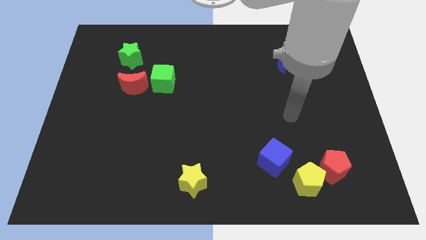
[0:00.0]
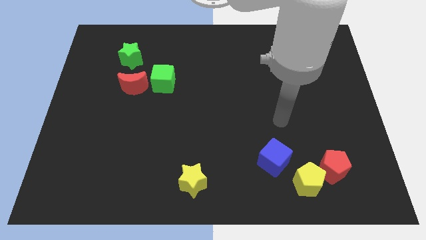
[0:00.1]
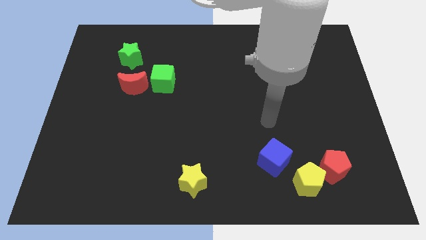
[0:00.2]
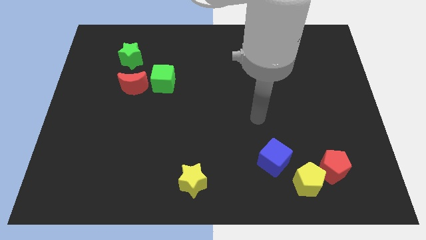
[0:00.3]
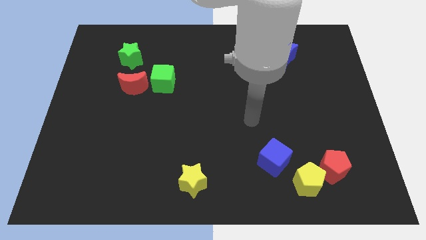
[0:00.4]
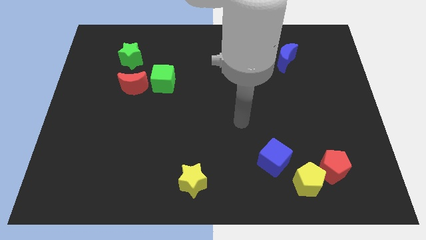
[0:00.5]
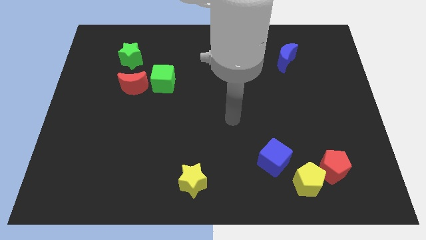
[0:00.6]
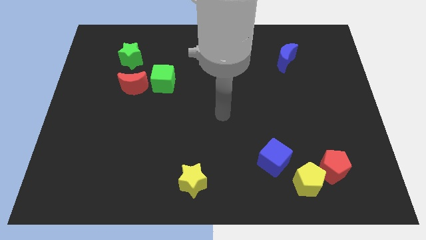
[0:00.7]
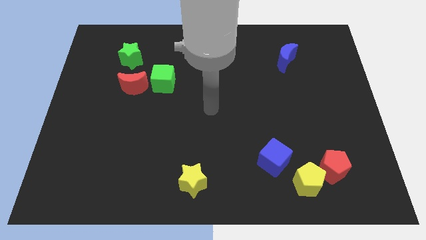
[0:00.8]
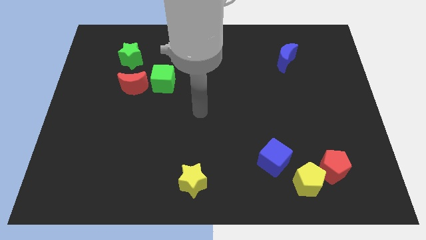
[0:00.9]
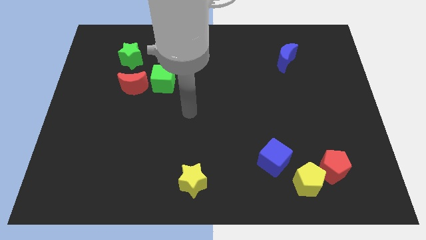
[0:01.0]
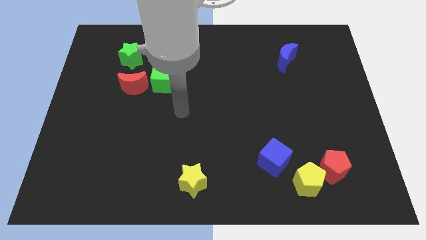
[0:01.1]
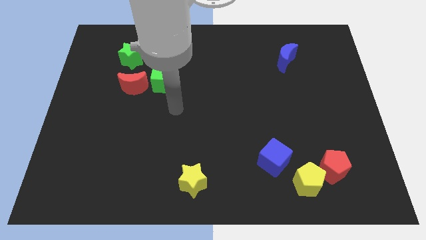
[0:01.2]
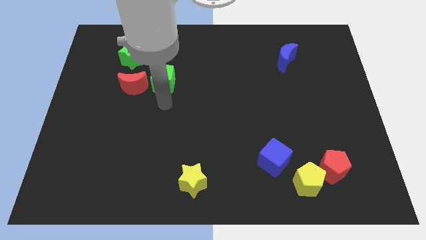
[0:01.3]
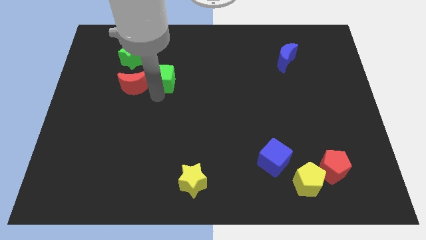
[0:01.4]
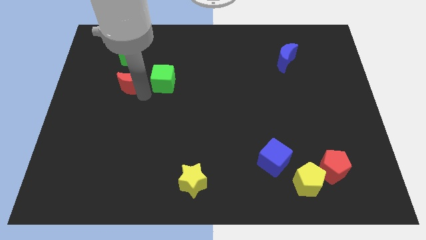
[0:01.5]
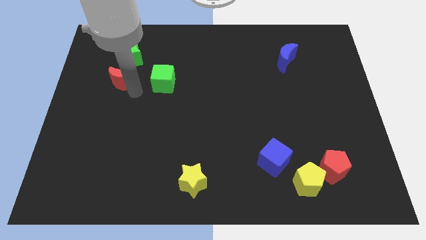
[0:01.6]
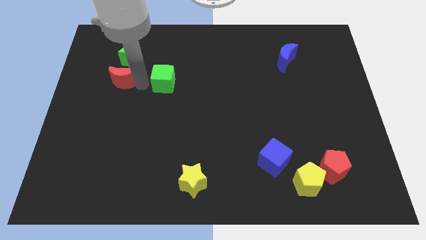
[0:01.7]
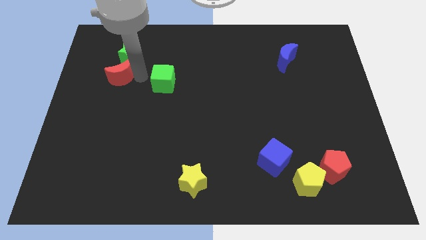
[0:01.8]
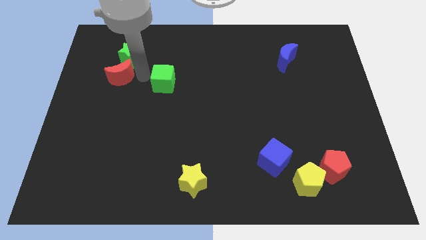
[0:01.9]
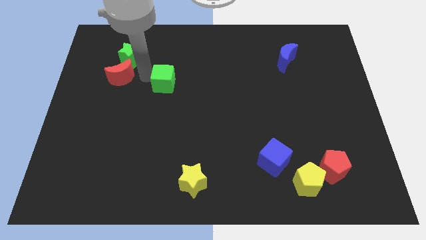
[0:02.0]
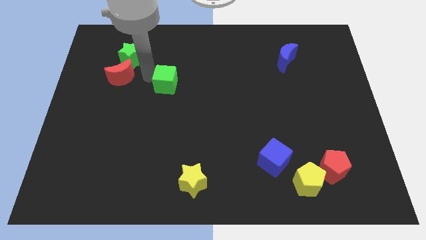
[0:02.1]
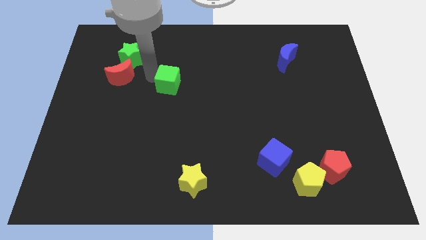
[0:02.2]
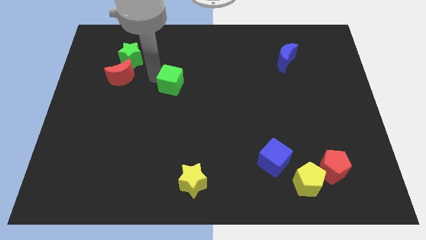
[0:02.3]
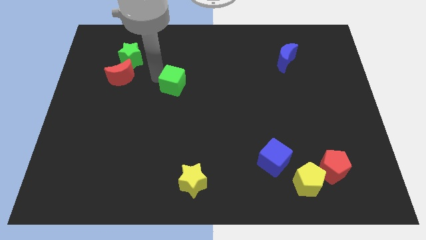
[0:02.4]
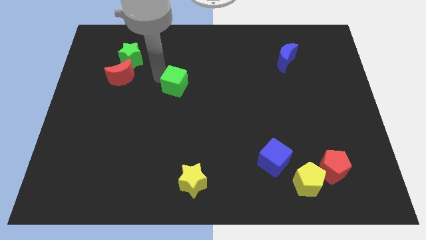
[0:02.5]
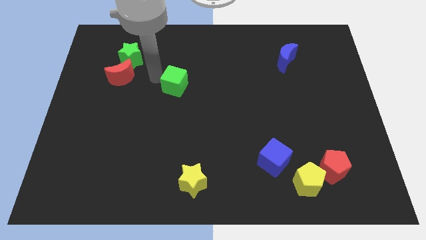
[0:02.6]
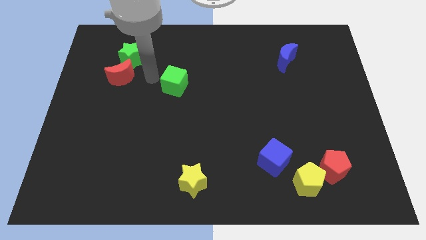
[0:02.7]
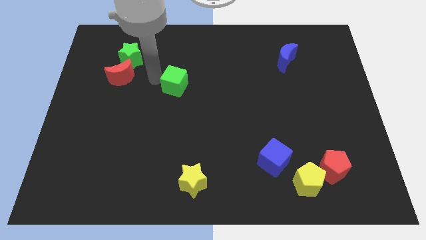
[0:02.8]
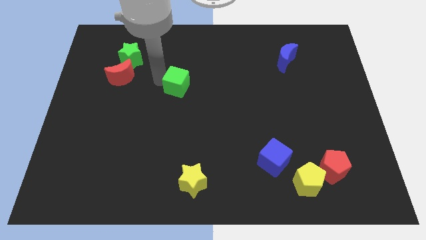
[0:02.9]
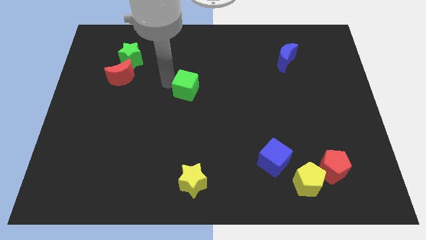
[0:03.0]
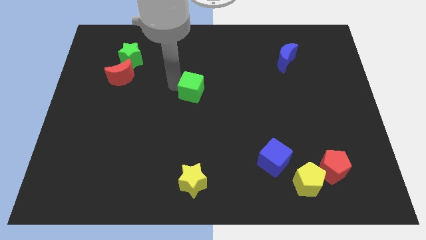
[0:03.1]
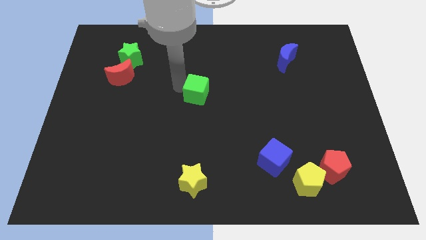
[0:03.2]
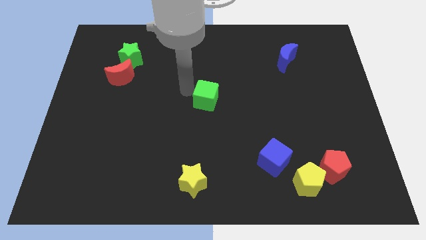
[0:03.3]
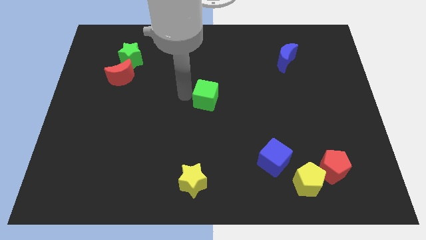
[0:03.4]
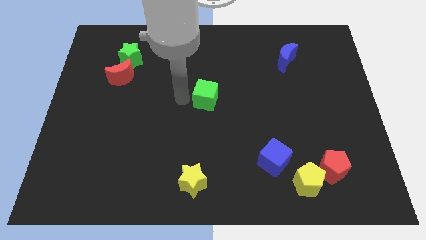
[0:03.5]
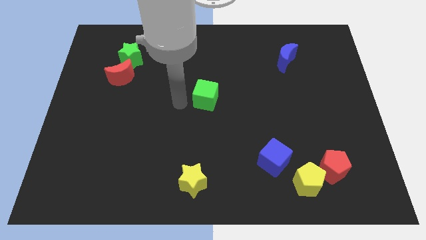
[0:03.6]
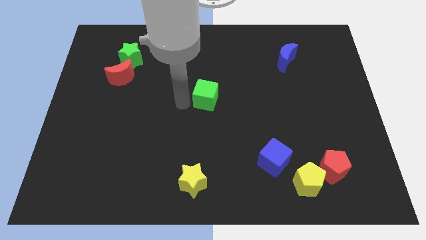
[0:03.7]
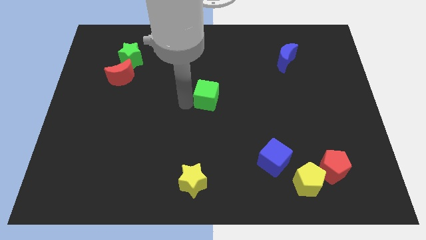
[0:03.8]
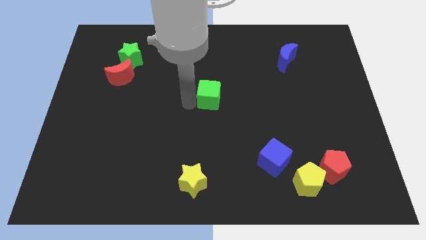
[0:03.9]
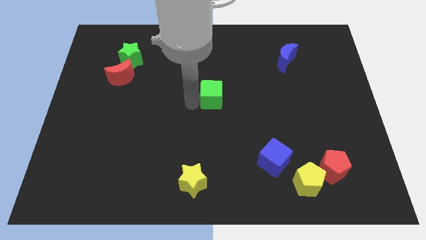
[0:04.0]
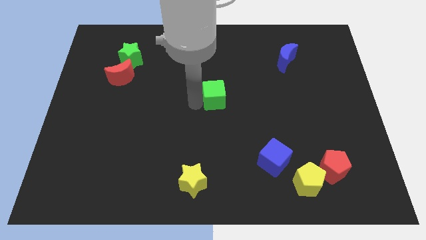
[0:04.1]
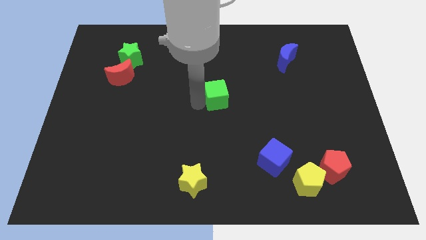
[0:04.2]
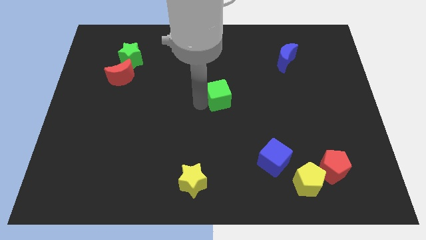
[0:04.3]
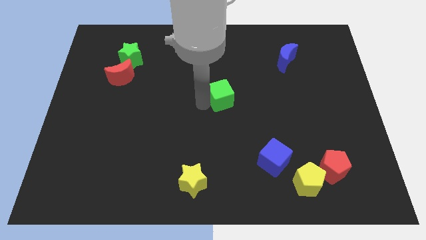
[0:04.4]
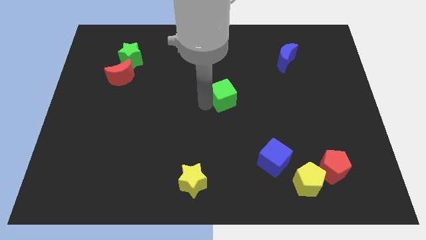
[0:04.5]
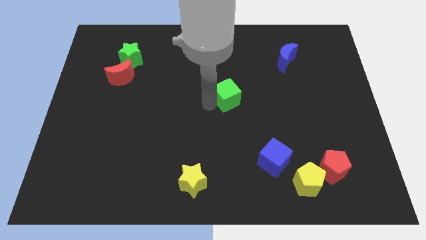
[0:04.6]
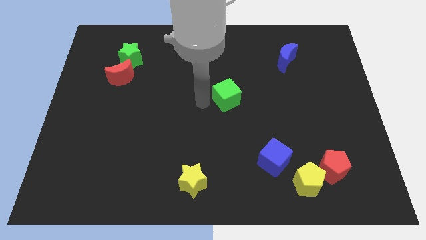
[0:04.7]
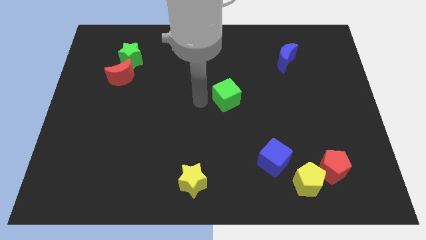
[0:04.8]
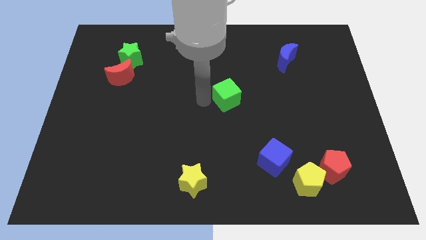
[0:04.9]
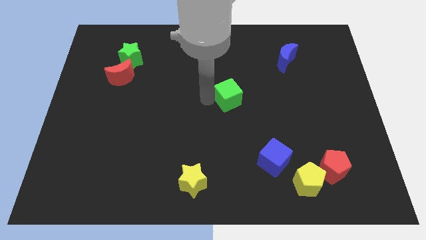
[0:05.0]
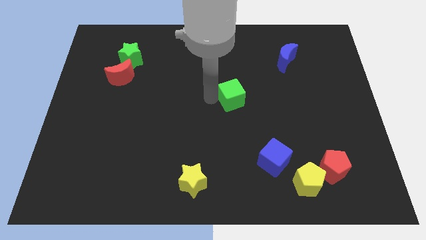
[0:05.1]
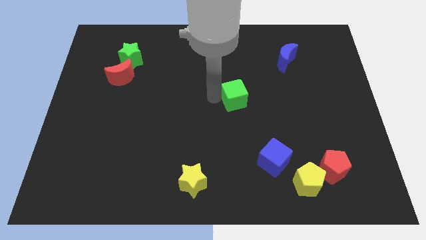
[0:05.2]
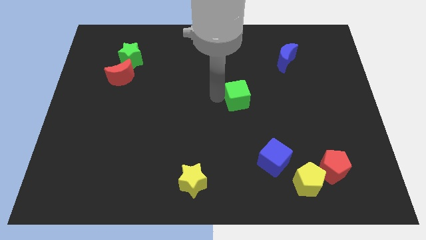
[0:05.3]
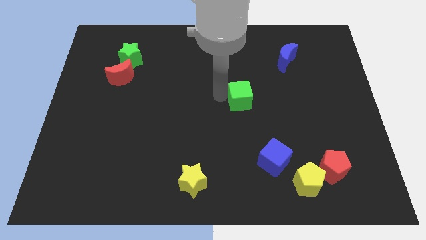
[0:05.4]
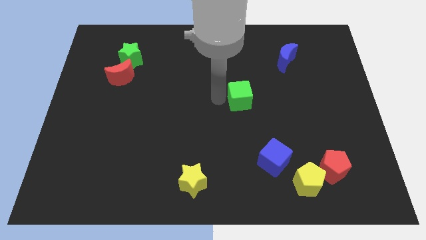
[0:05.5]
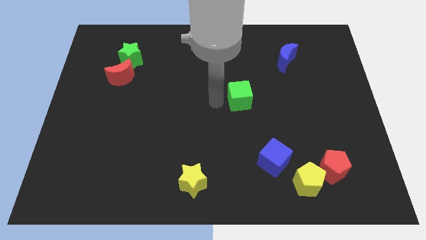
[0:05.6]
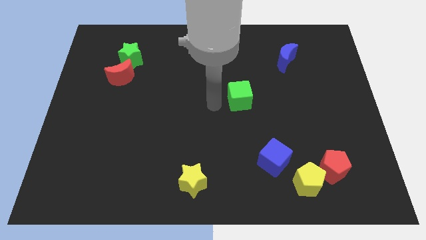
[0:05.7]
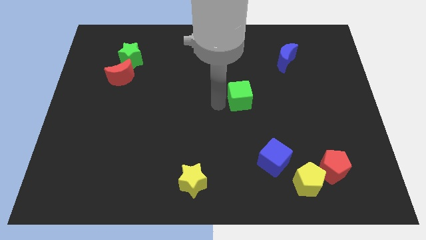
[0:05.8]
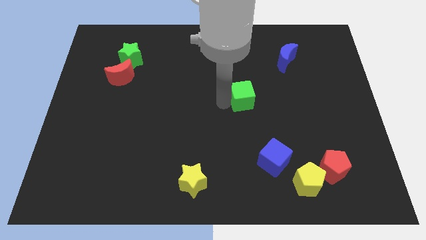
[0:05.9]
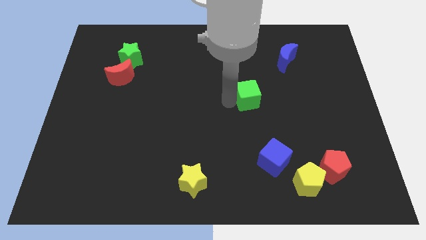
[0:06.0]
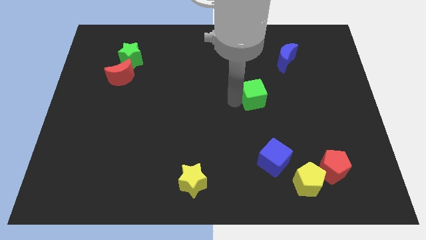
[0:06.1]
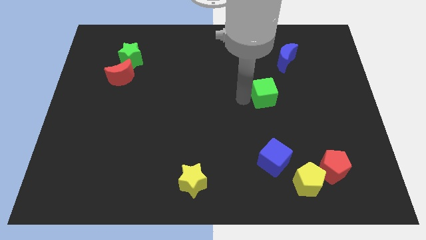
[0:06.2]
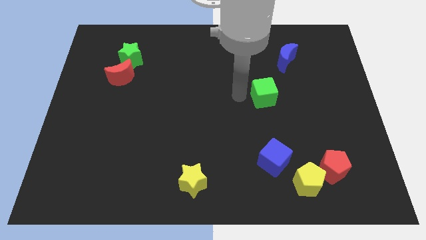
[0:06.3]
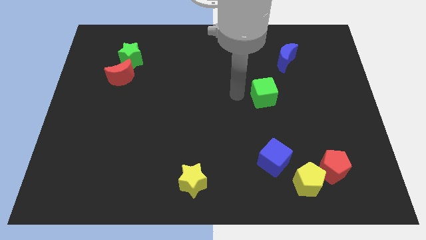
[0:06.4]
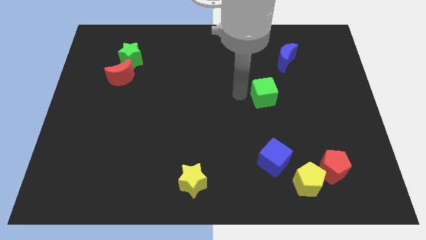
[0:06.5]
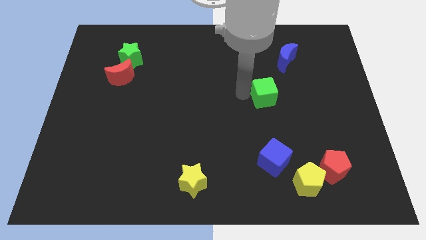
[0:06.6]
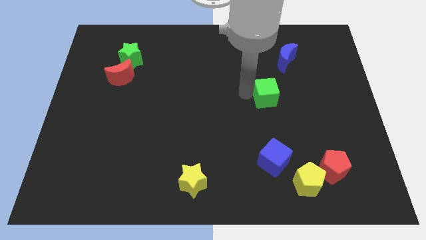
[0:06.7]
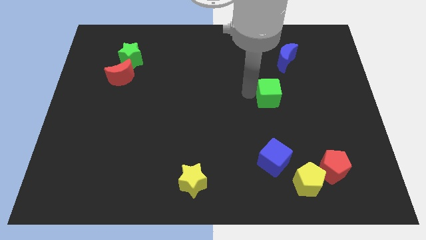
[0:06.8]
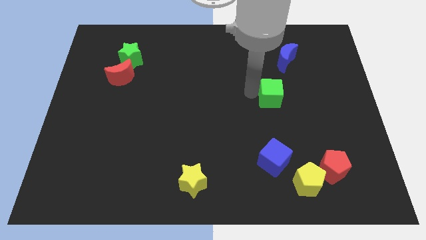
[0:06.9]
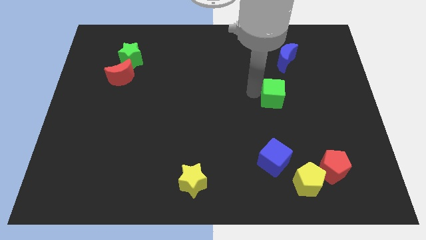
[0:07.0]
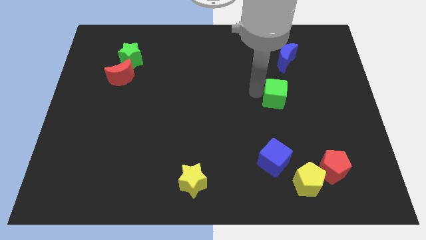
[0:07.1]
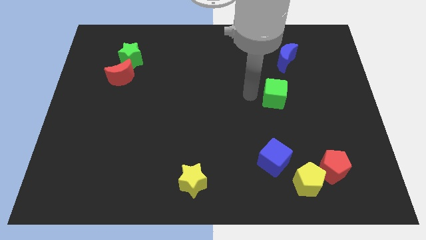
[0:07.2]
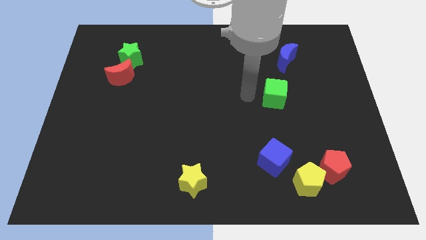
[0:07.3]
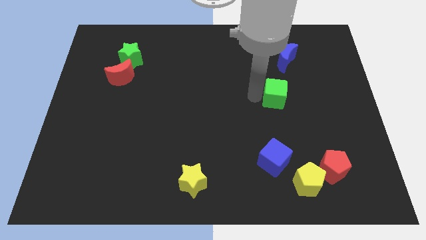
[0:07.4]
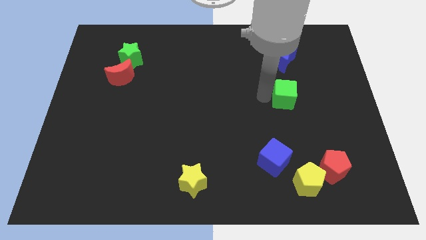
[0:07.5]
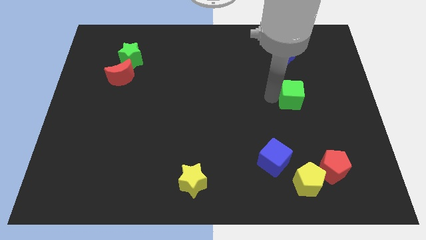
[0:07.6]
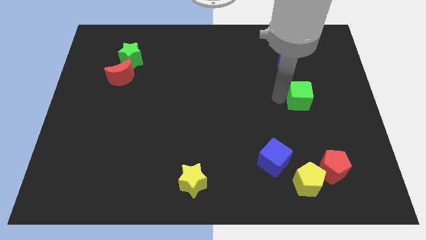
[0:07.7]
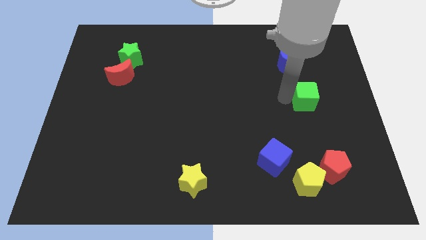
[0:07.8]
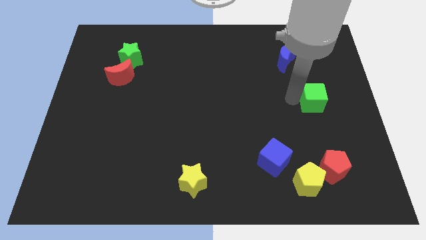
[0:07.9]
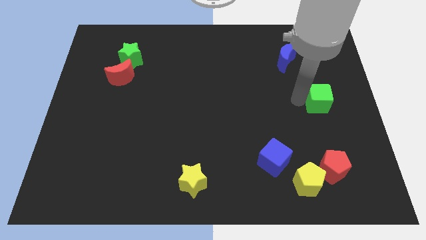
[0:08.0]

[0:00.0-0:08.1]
slide the green cube to the center right
